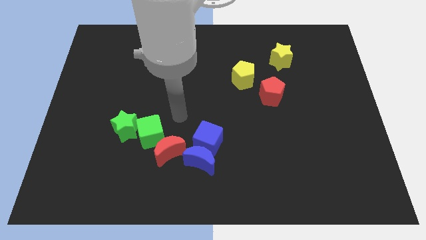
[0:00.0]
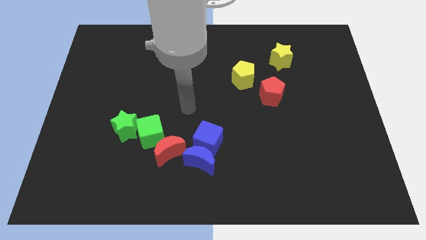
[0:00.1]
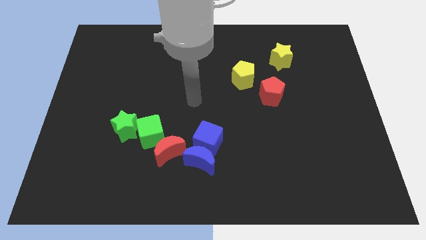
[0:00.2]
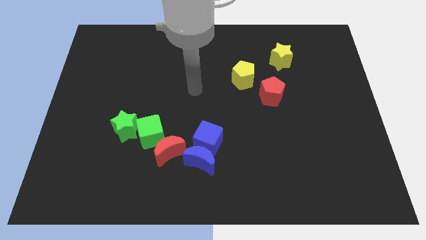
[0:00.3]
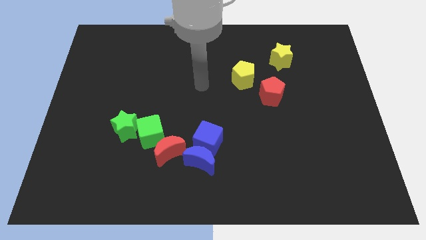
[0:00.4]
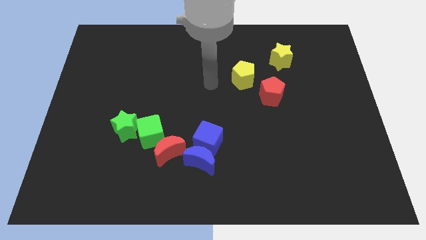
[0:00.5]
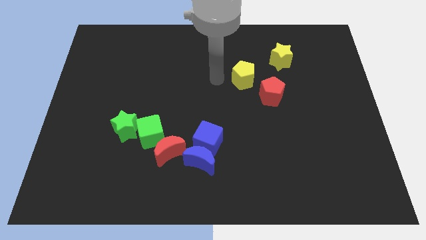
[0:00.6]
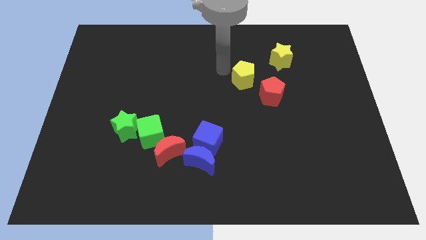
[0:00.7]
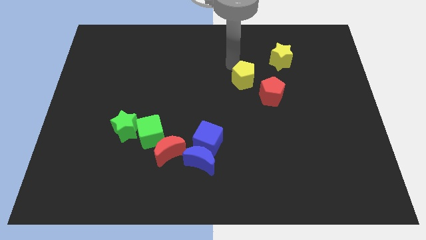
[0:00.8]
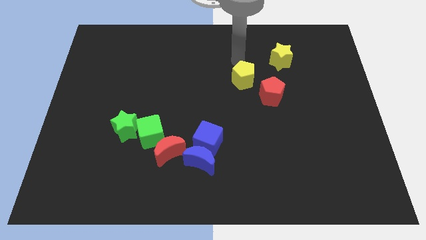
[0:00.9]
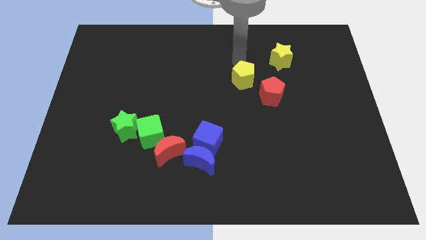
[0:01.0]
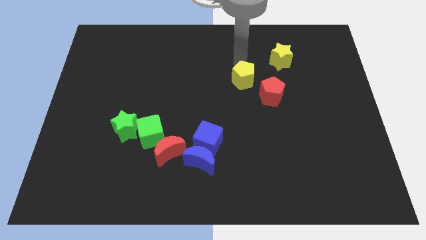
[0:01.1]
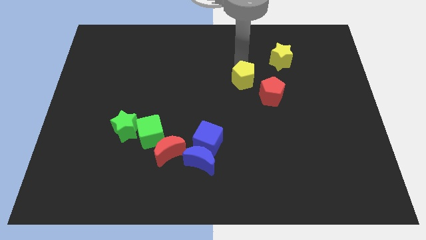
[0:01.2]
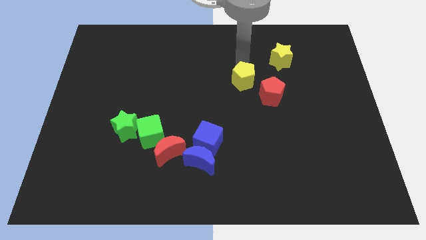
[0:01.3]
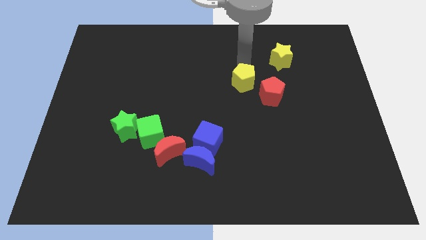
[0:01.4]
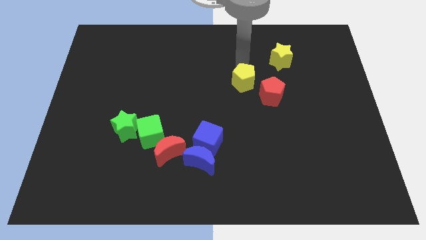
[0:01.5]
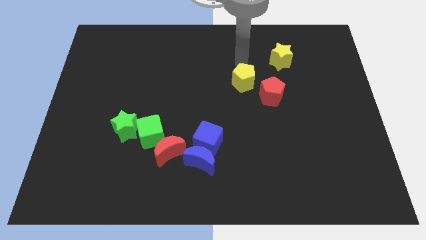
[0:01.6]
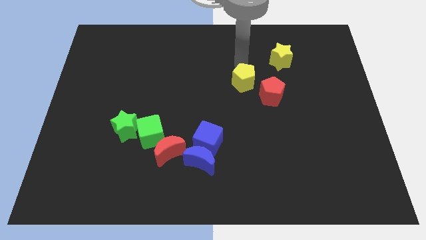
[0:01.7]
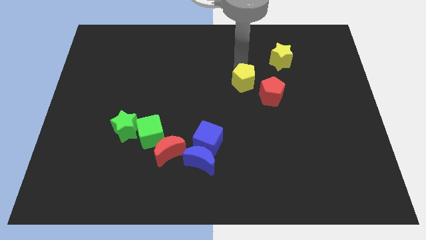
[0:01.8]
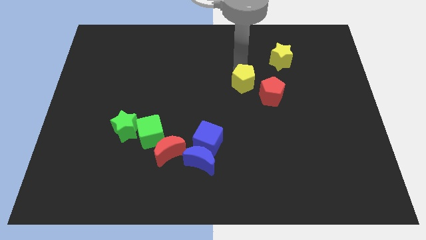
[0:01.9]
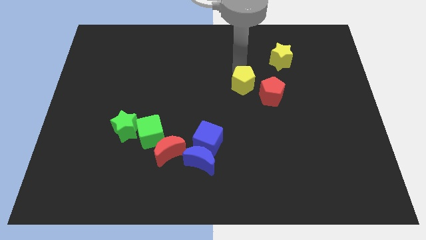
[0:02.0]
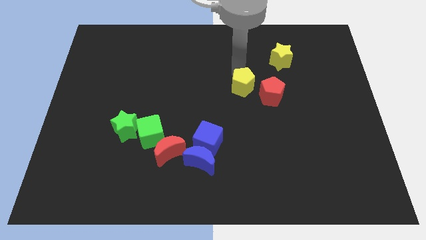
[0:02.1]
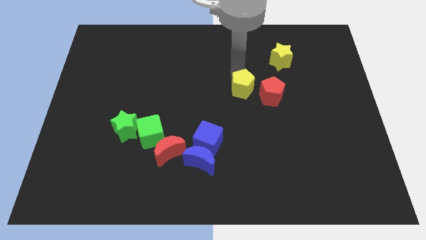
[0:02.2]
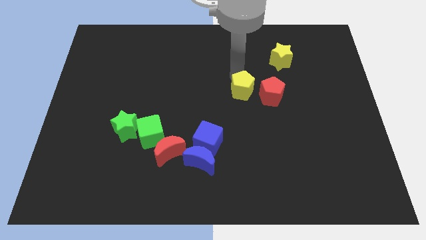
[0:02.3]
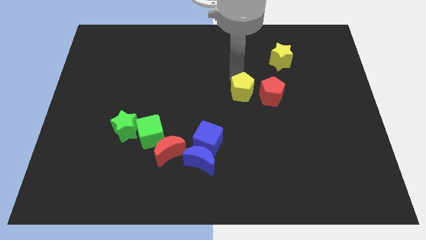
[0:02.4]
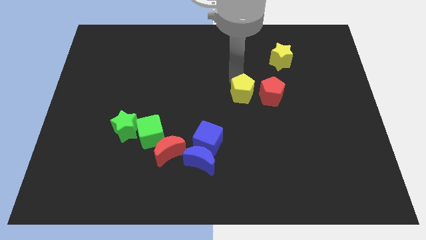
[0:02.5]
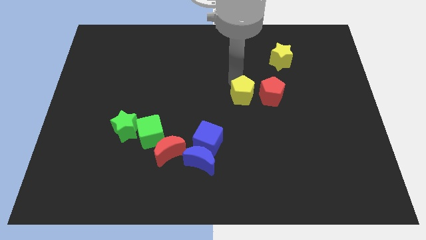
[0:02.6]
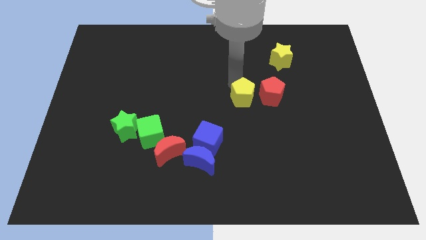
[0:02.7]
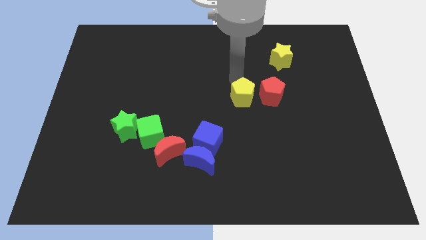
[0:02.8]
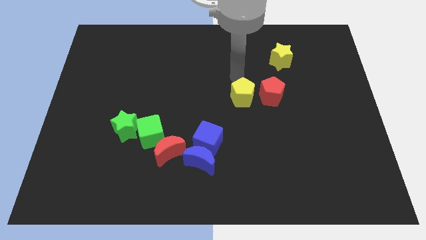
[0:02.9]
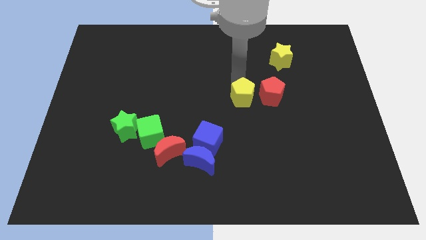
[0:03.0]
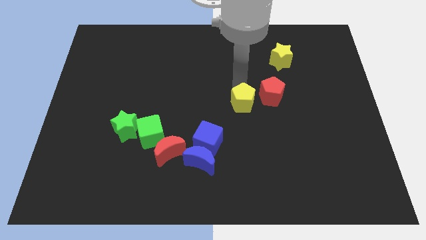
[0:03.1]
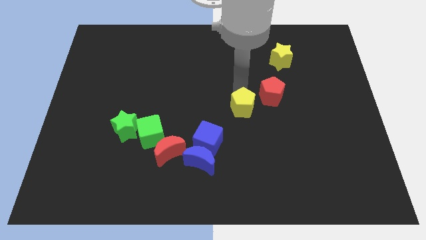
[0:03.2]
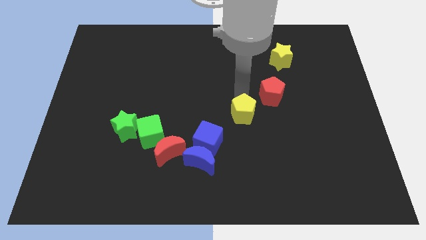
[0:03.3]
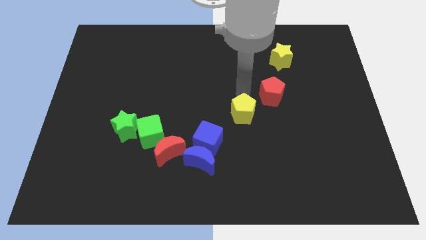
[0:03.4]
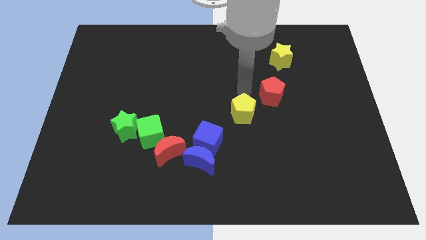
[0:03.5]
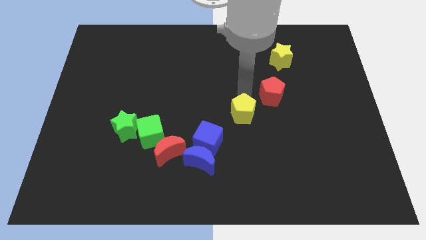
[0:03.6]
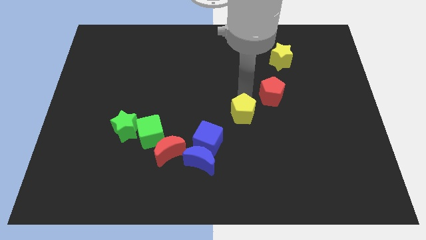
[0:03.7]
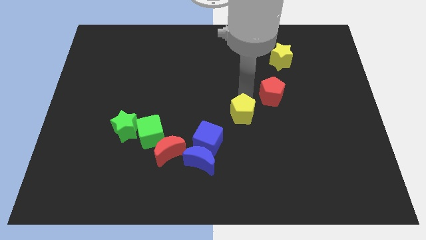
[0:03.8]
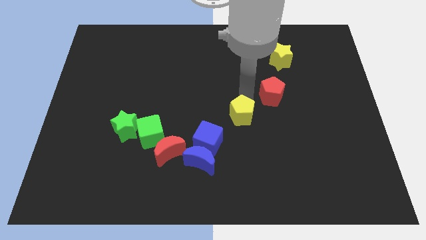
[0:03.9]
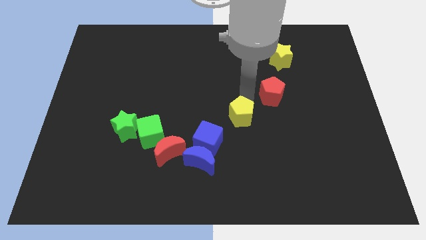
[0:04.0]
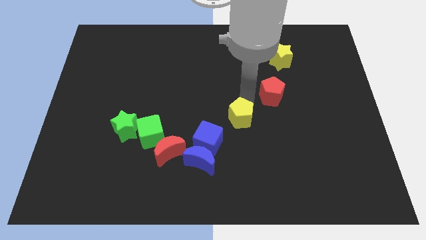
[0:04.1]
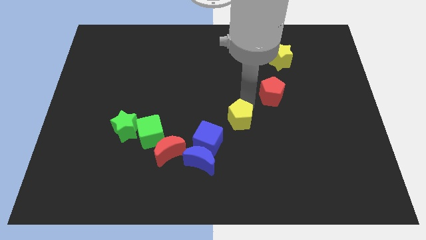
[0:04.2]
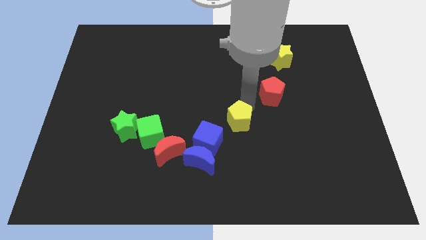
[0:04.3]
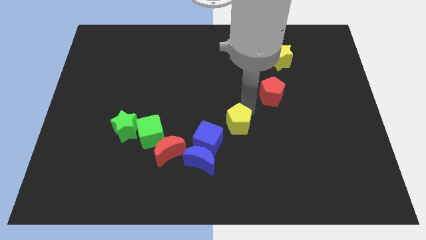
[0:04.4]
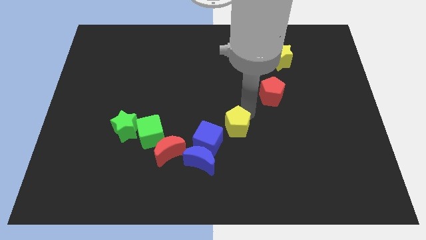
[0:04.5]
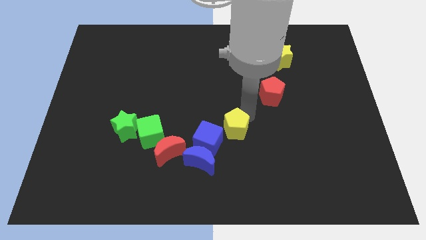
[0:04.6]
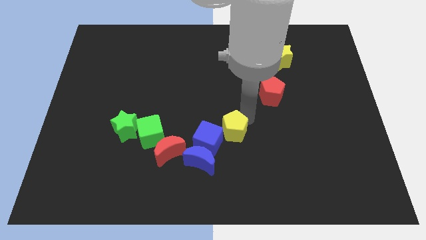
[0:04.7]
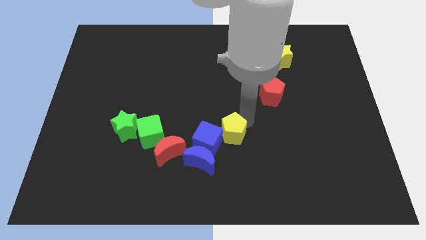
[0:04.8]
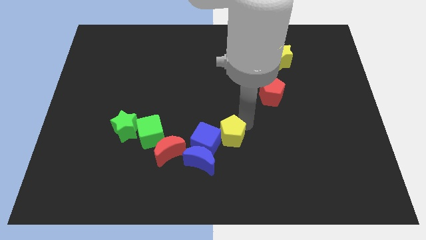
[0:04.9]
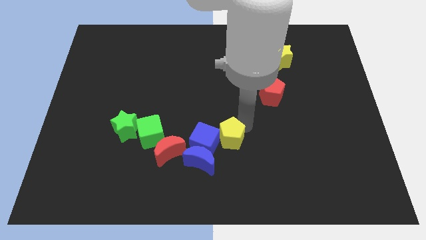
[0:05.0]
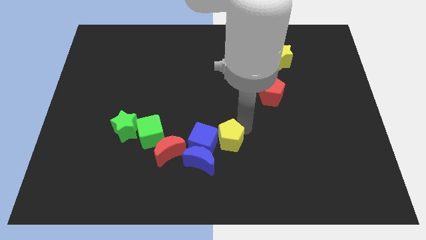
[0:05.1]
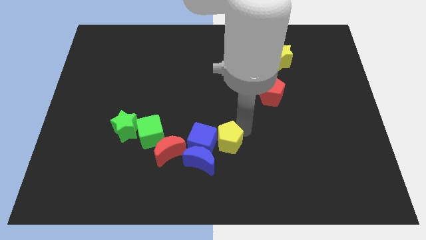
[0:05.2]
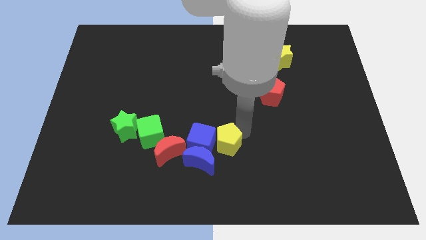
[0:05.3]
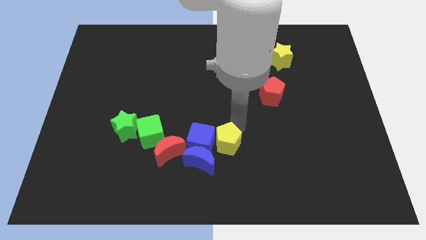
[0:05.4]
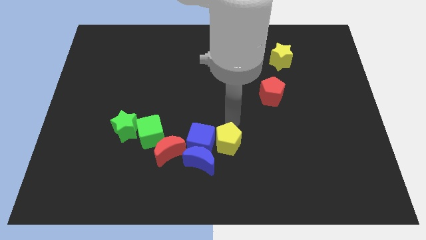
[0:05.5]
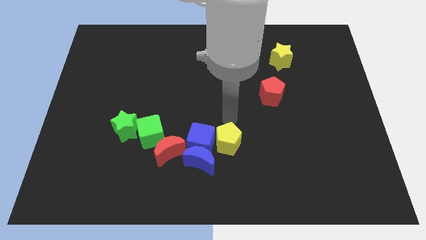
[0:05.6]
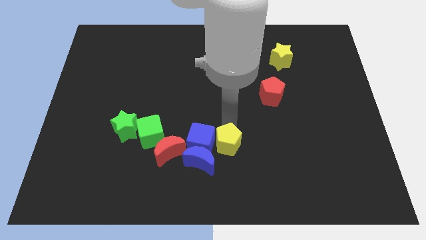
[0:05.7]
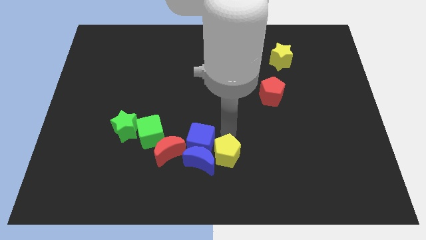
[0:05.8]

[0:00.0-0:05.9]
put the yellow pentagon to the bottom side

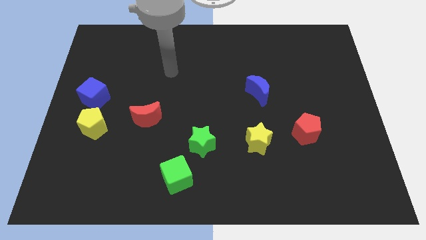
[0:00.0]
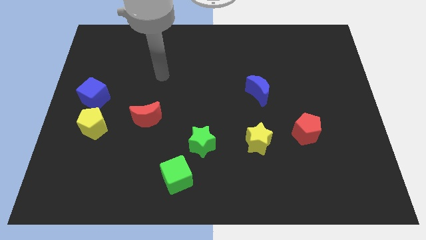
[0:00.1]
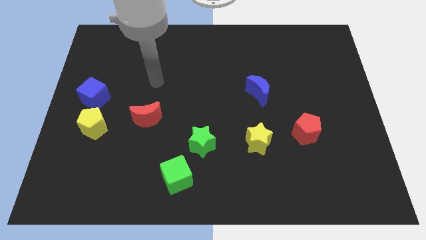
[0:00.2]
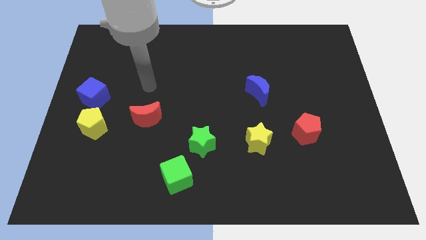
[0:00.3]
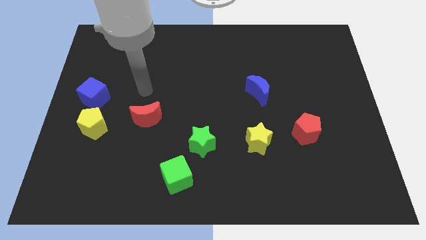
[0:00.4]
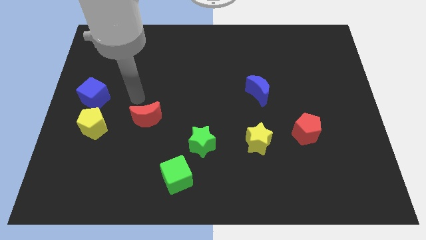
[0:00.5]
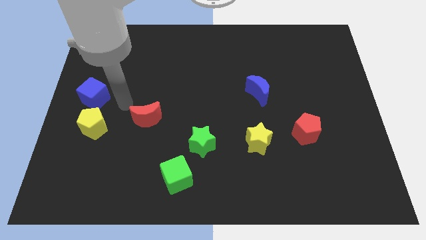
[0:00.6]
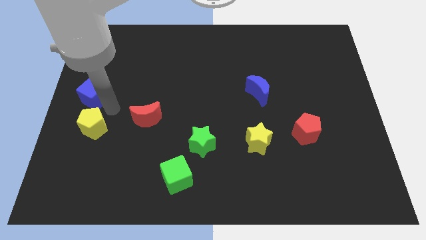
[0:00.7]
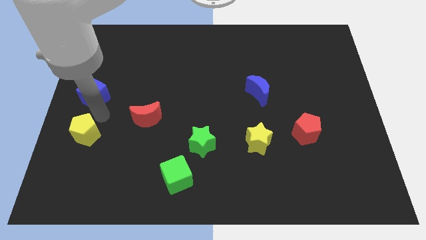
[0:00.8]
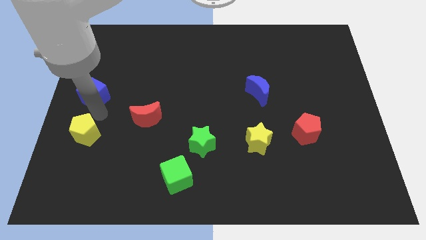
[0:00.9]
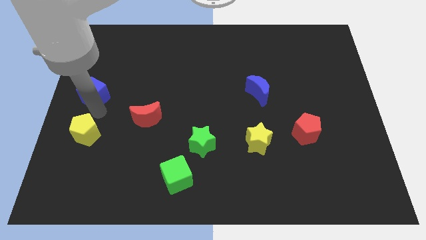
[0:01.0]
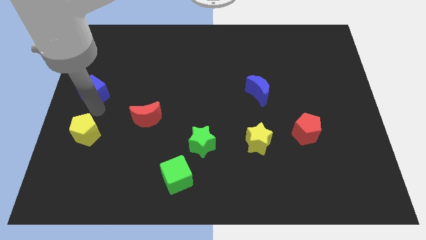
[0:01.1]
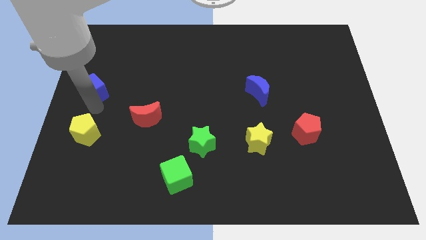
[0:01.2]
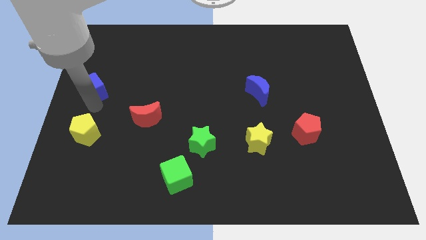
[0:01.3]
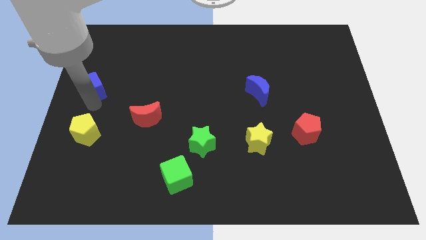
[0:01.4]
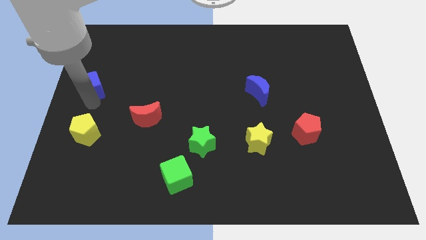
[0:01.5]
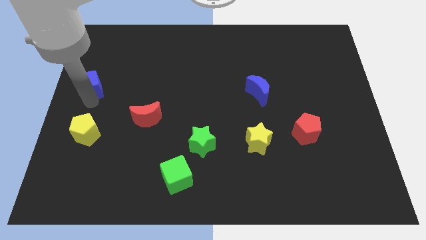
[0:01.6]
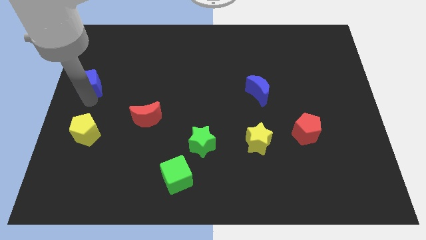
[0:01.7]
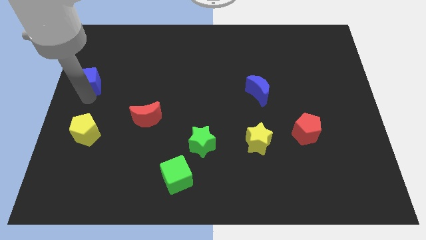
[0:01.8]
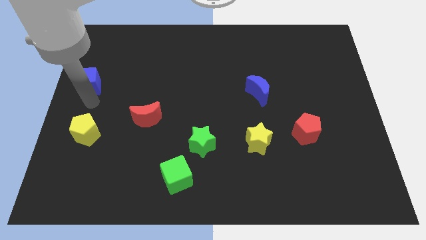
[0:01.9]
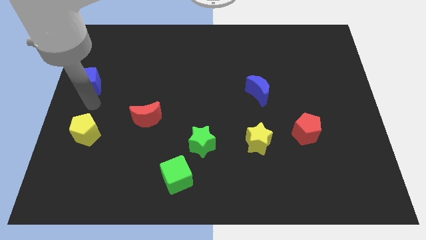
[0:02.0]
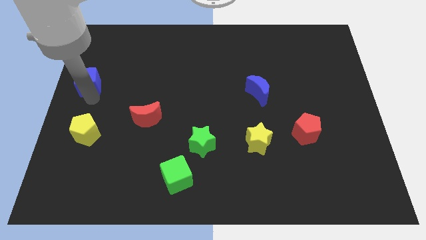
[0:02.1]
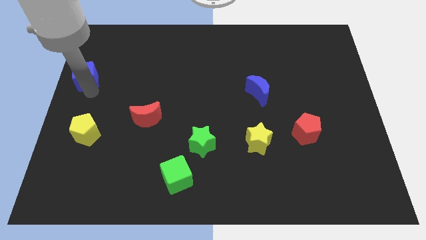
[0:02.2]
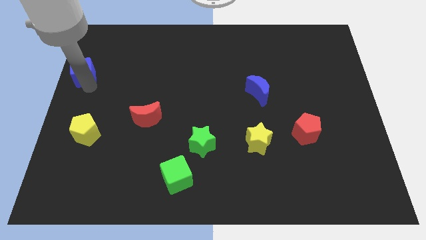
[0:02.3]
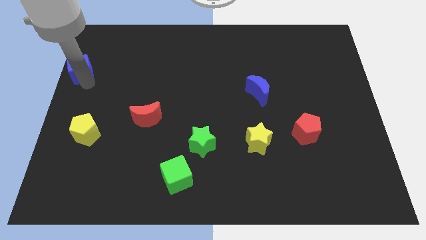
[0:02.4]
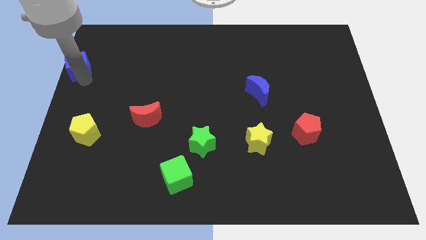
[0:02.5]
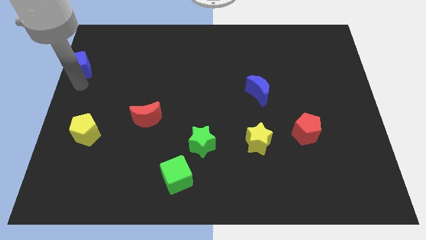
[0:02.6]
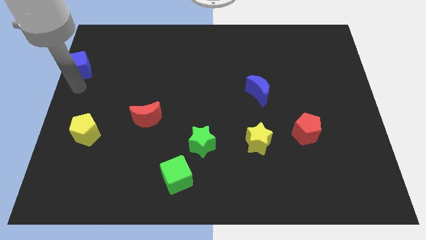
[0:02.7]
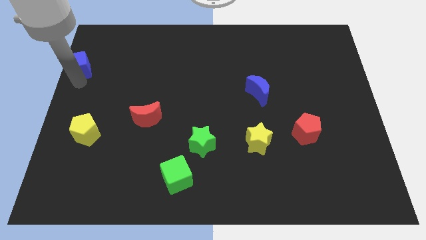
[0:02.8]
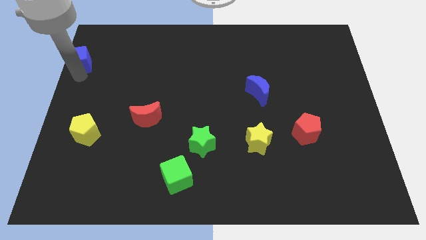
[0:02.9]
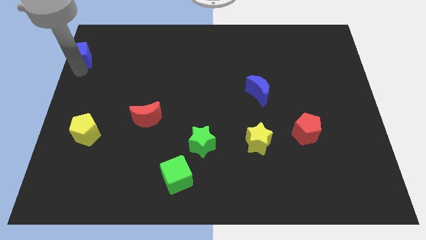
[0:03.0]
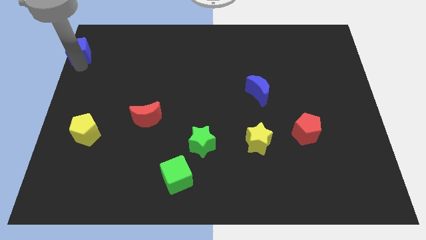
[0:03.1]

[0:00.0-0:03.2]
put the blue cube to the upper left corner
